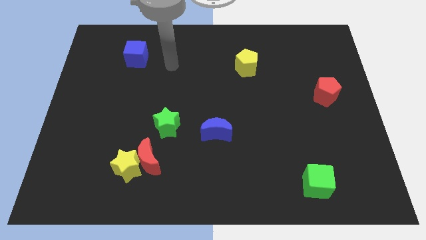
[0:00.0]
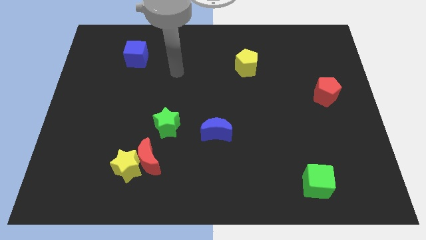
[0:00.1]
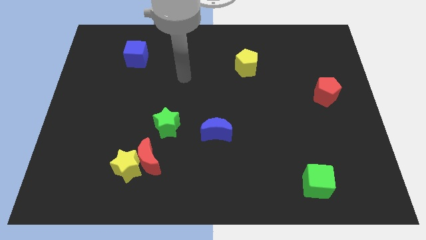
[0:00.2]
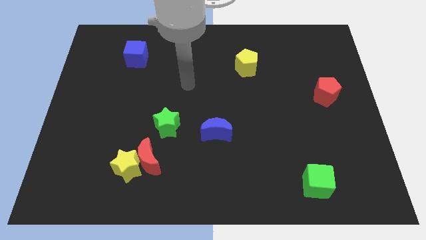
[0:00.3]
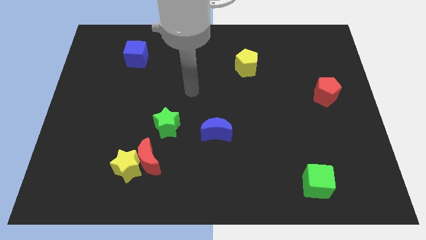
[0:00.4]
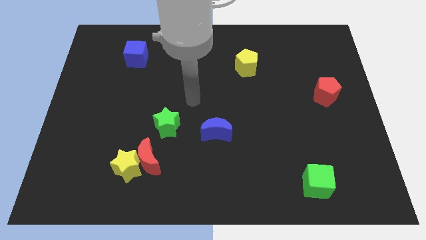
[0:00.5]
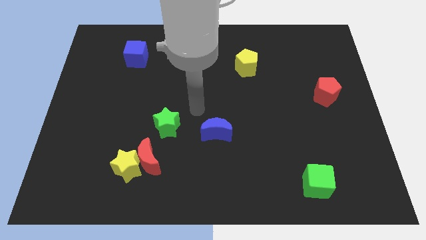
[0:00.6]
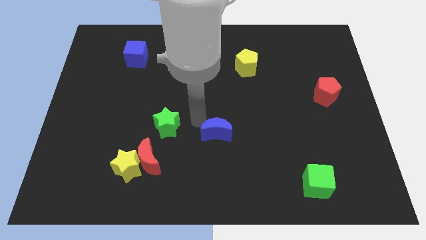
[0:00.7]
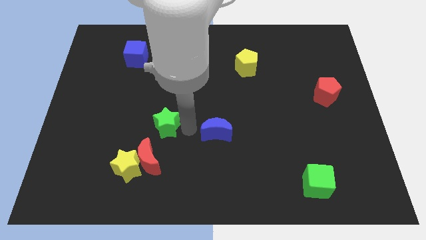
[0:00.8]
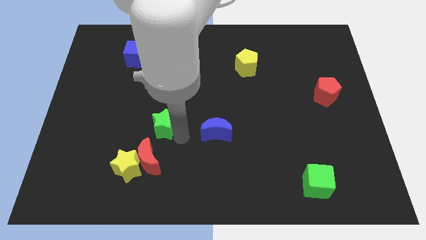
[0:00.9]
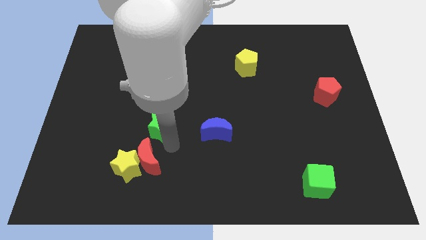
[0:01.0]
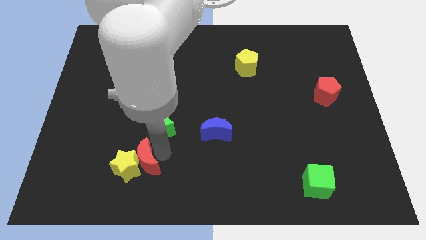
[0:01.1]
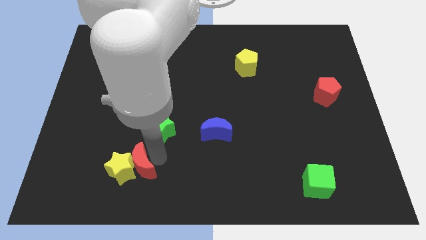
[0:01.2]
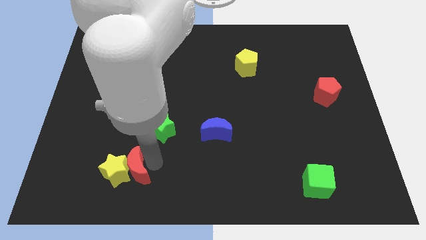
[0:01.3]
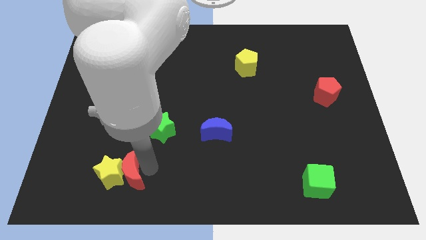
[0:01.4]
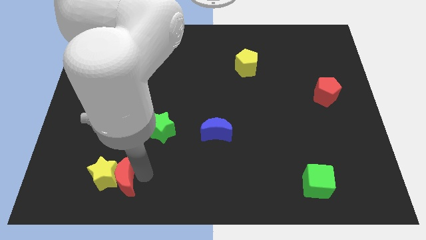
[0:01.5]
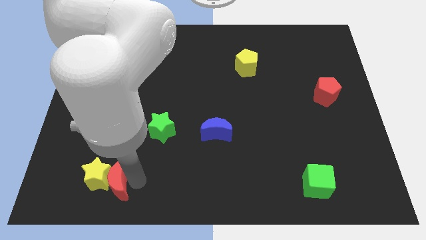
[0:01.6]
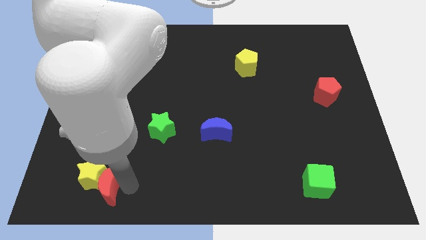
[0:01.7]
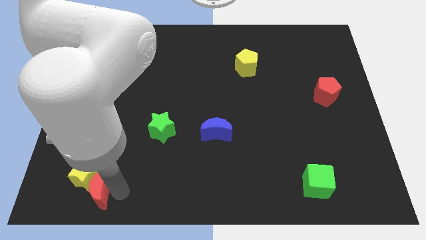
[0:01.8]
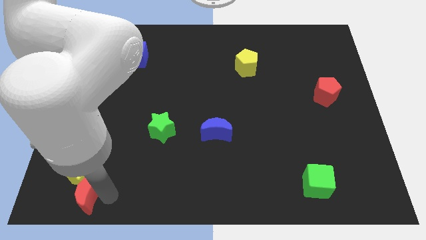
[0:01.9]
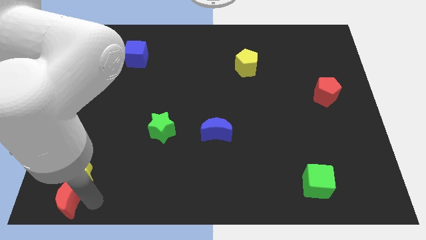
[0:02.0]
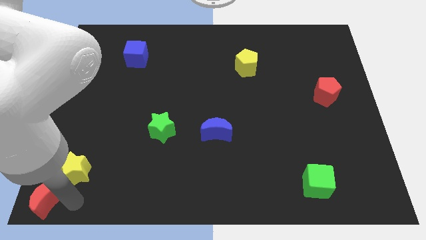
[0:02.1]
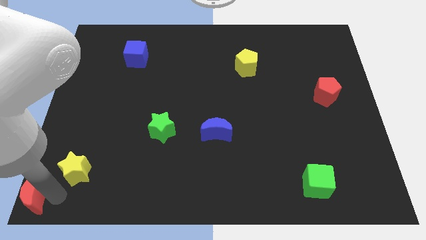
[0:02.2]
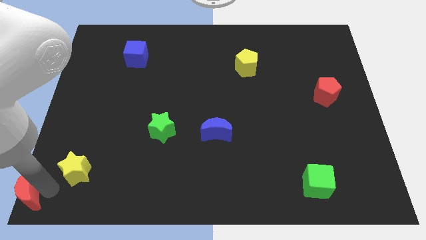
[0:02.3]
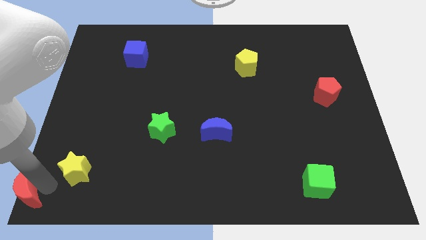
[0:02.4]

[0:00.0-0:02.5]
move the yellow star away from the red moon

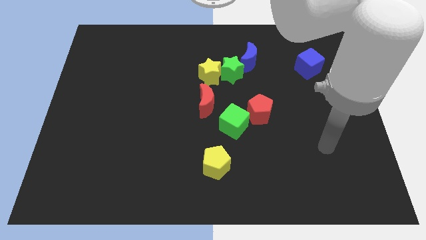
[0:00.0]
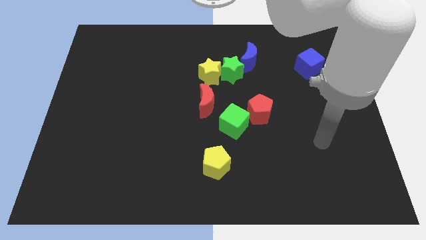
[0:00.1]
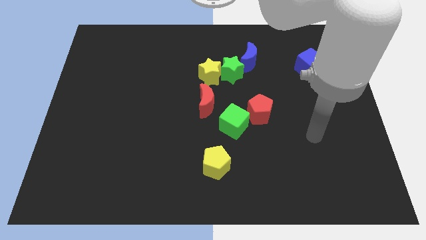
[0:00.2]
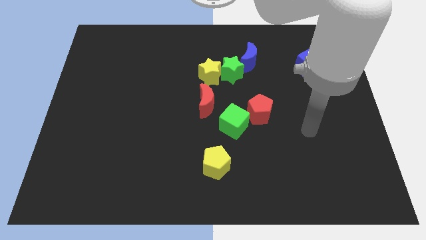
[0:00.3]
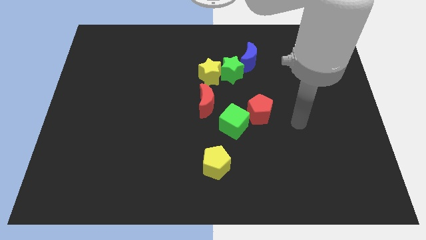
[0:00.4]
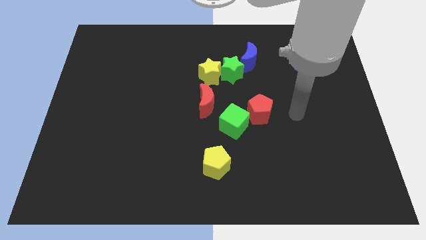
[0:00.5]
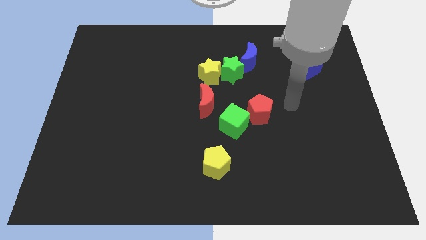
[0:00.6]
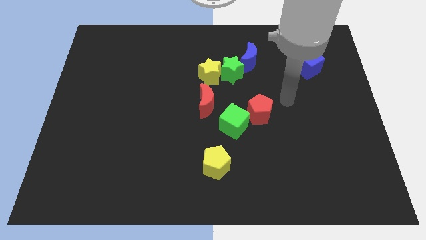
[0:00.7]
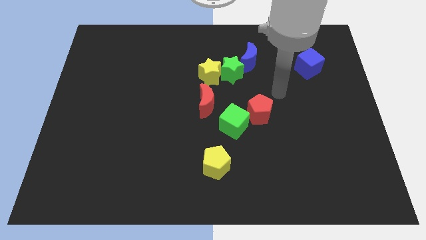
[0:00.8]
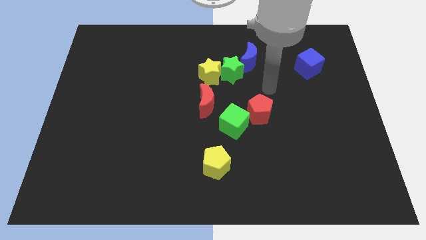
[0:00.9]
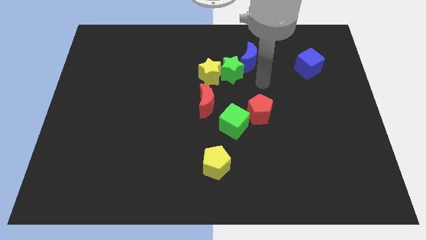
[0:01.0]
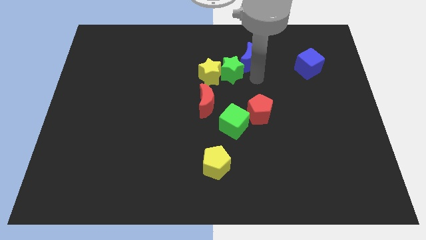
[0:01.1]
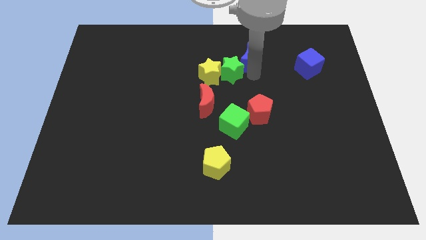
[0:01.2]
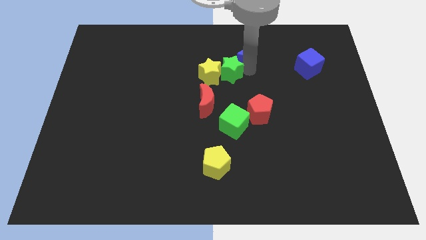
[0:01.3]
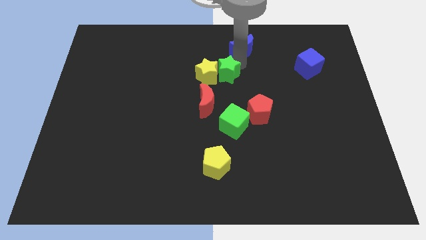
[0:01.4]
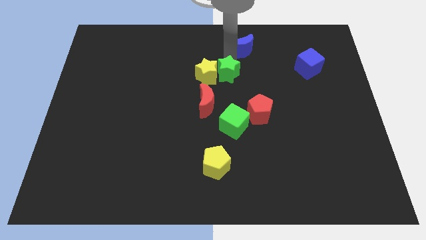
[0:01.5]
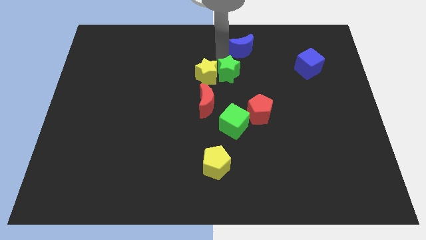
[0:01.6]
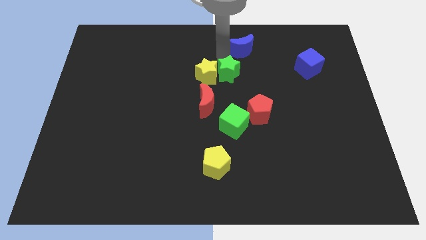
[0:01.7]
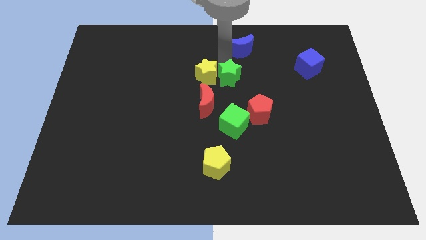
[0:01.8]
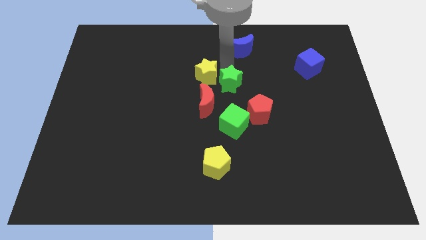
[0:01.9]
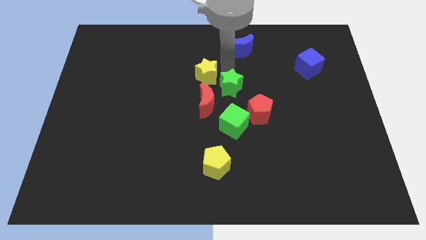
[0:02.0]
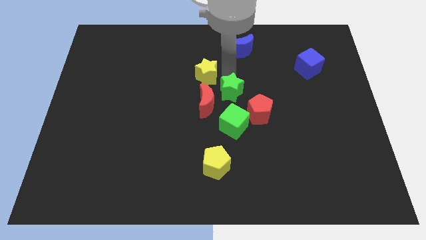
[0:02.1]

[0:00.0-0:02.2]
separate the green star from the yellow star and blue moon

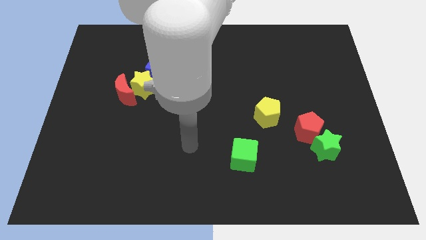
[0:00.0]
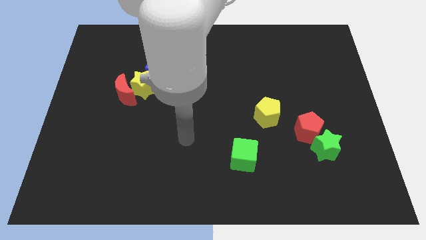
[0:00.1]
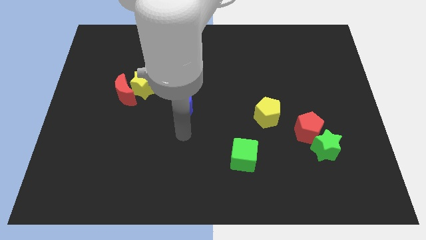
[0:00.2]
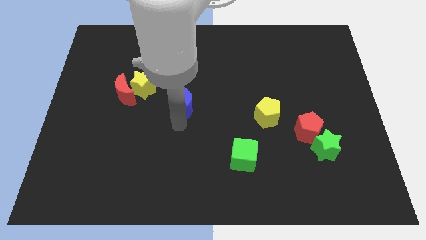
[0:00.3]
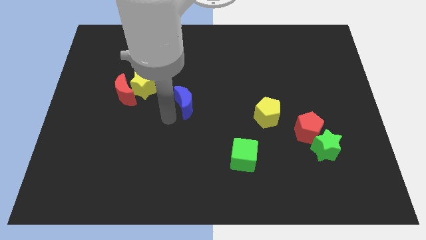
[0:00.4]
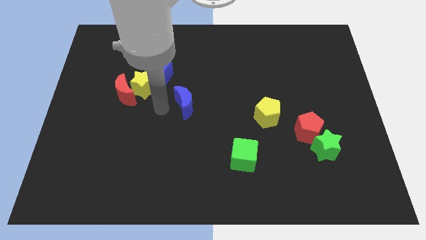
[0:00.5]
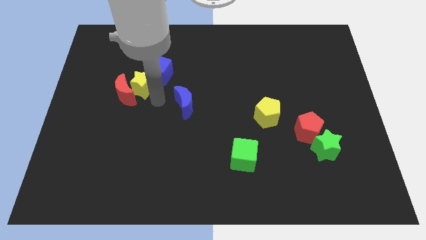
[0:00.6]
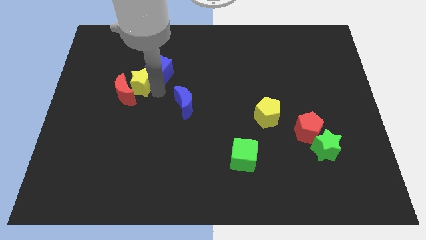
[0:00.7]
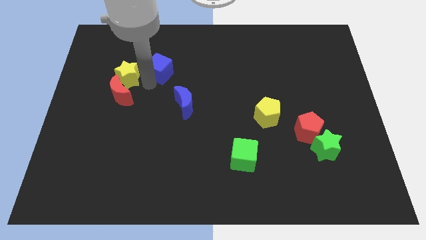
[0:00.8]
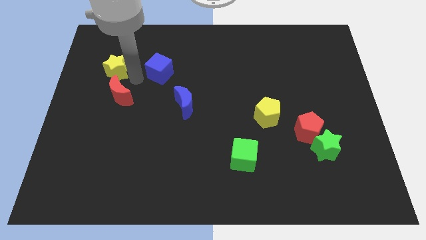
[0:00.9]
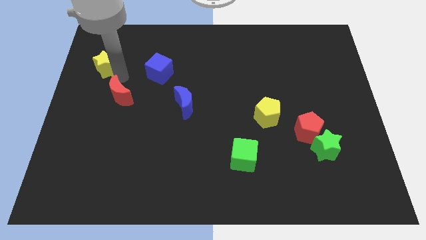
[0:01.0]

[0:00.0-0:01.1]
separate the red moon from the yellow star

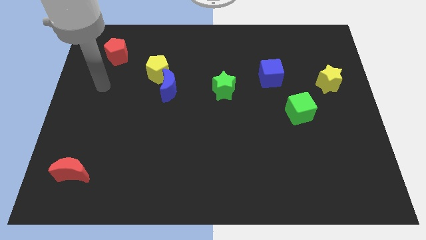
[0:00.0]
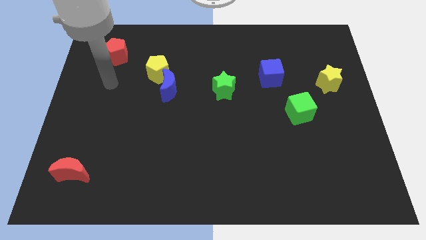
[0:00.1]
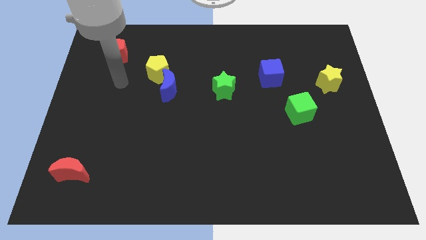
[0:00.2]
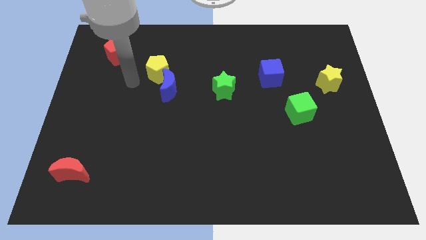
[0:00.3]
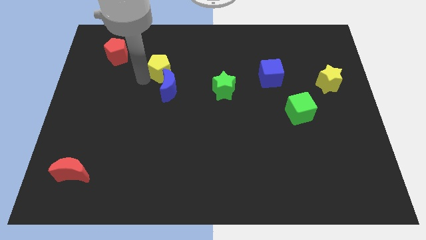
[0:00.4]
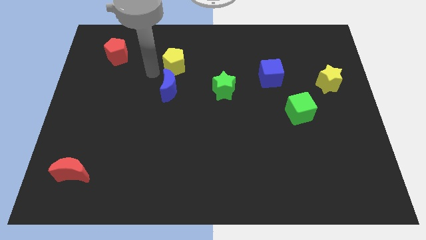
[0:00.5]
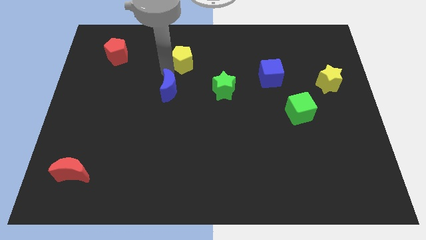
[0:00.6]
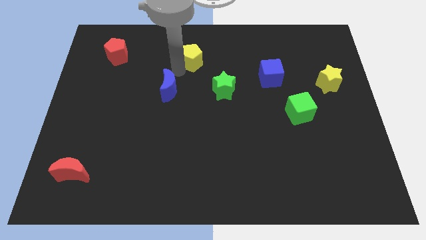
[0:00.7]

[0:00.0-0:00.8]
move the blue moon away from the yellow pentagon

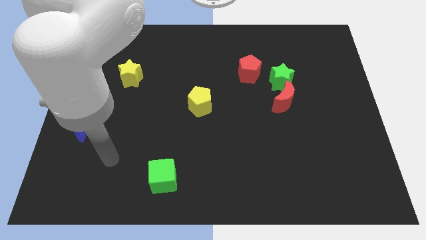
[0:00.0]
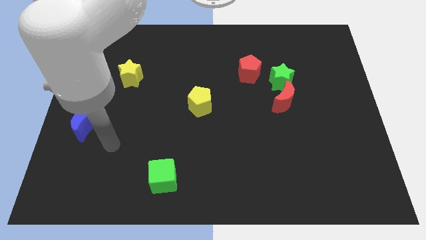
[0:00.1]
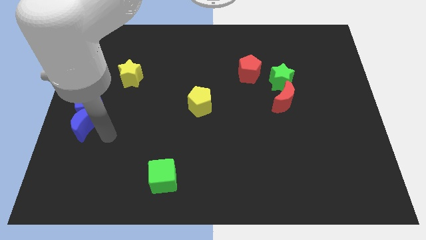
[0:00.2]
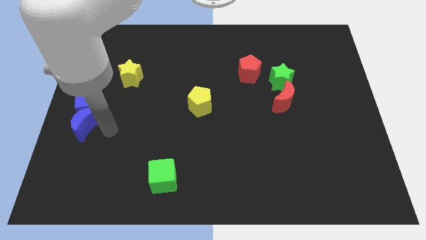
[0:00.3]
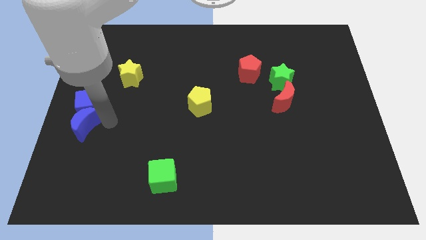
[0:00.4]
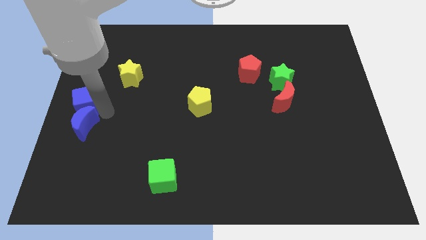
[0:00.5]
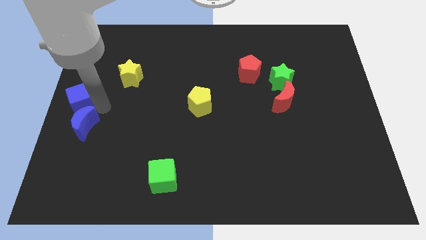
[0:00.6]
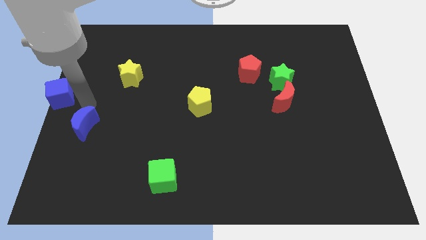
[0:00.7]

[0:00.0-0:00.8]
separate the blue moon from the blue cube

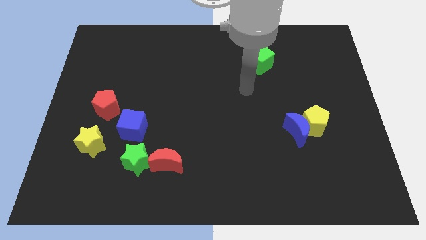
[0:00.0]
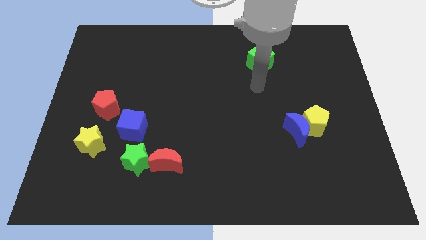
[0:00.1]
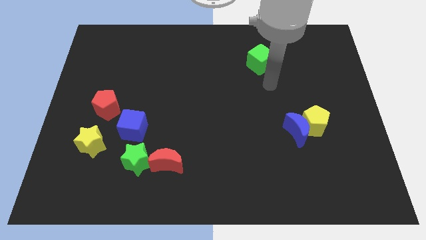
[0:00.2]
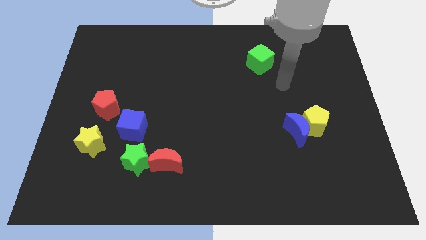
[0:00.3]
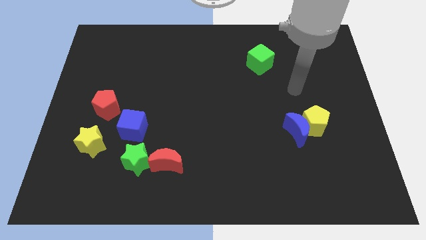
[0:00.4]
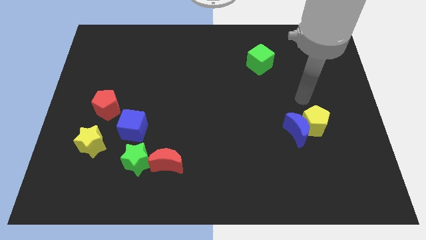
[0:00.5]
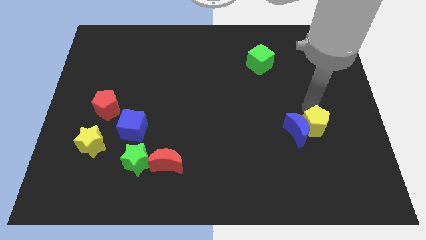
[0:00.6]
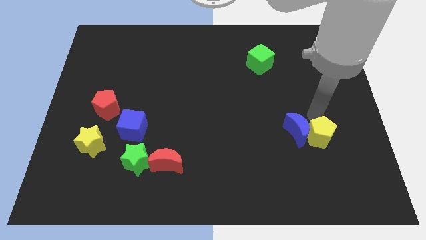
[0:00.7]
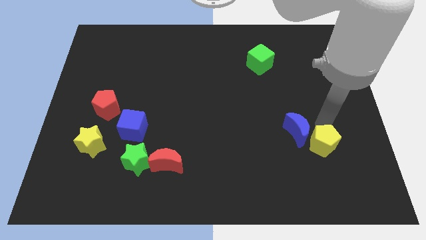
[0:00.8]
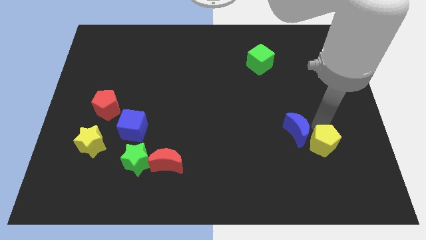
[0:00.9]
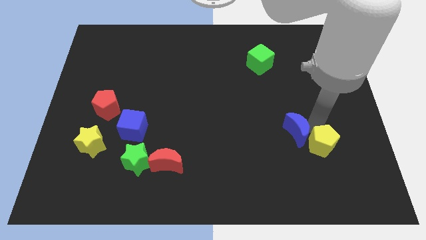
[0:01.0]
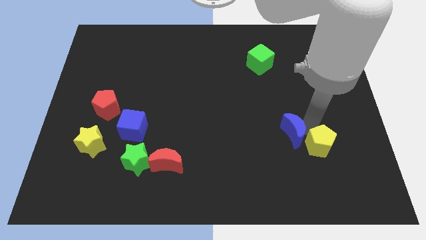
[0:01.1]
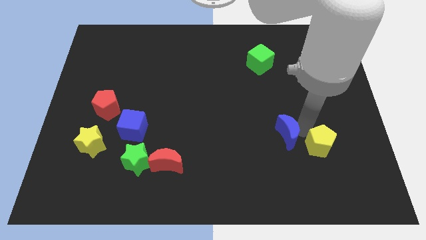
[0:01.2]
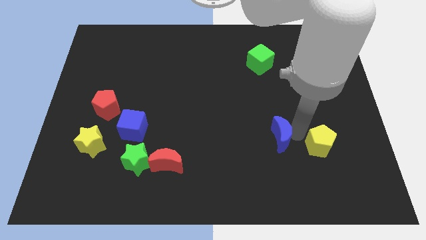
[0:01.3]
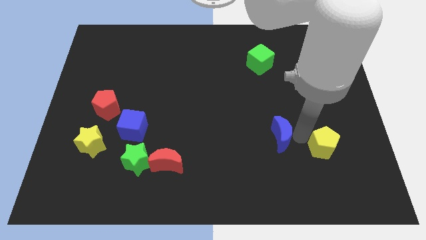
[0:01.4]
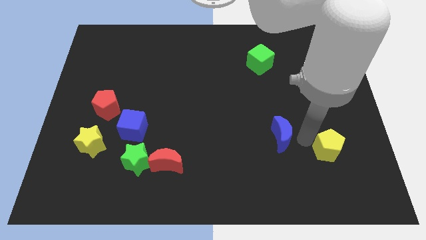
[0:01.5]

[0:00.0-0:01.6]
pull the blue moon apart from the yellow pentagon

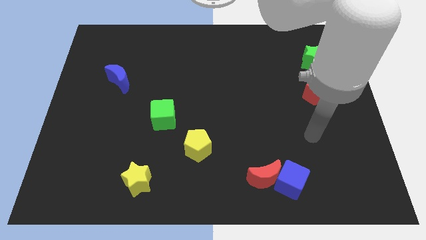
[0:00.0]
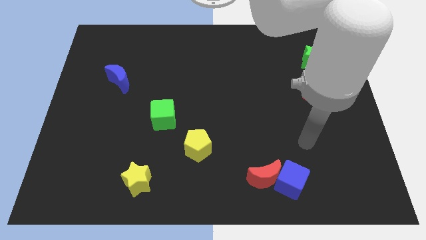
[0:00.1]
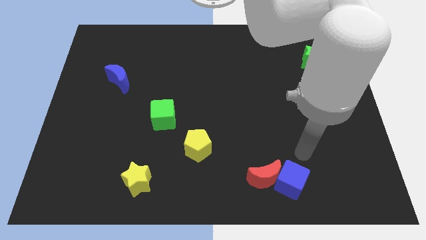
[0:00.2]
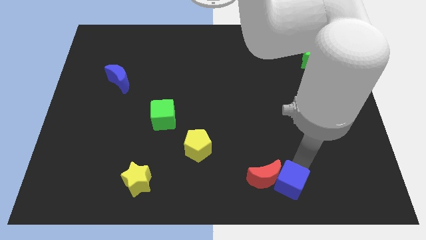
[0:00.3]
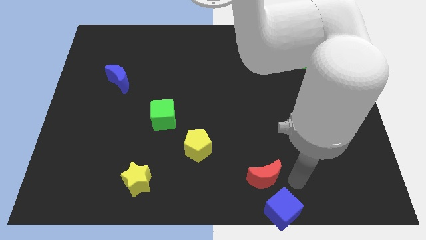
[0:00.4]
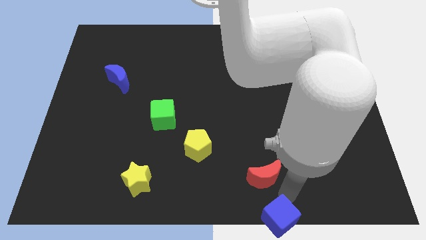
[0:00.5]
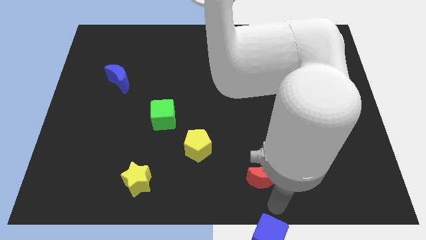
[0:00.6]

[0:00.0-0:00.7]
separate the red moon from the blue cube
